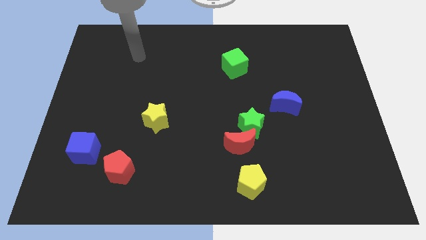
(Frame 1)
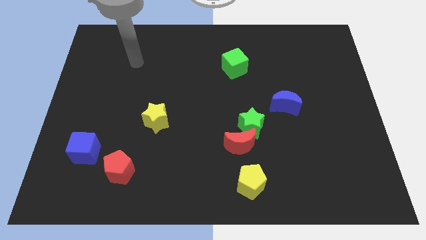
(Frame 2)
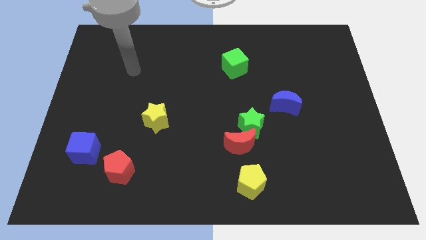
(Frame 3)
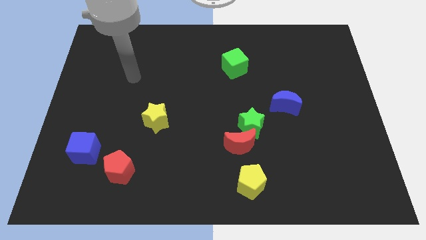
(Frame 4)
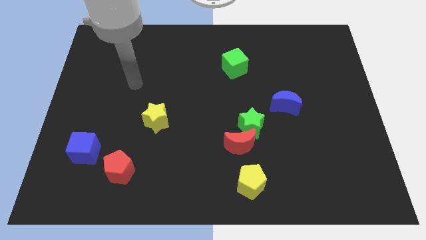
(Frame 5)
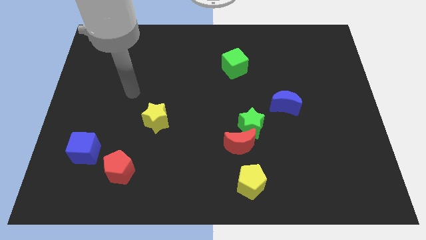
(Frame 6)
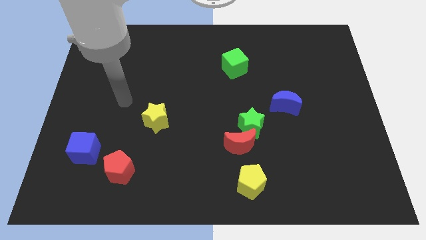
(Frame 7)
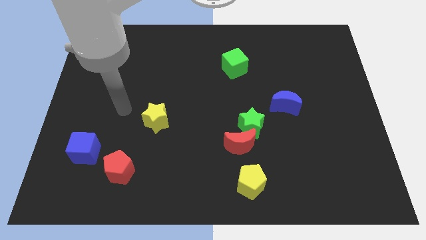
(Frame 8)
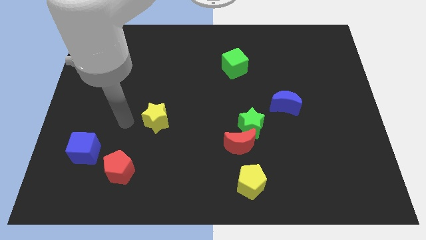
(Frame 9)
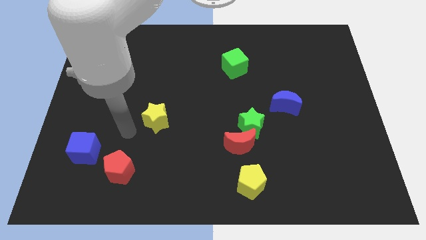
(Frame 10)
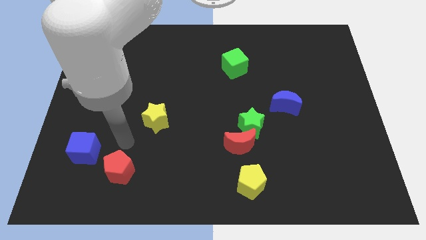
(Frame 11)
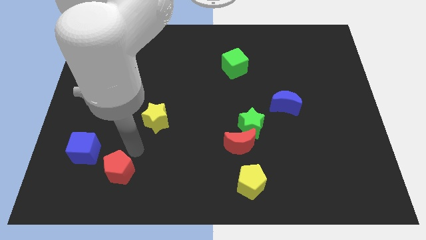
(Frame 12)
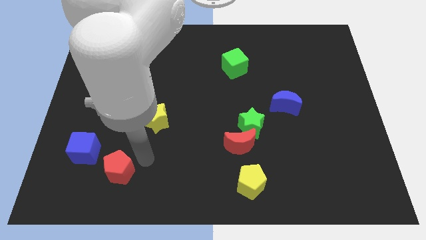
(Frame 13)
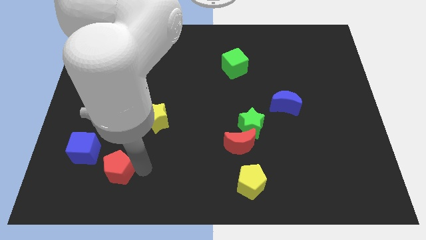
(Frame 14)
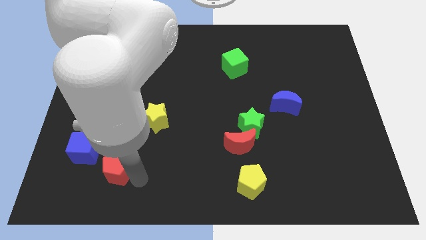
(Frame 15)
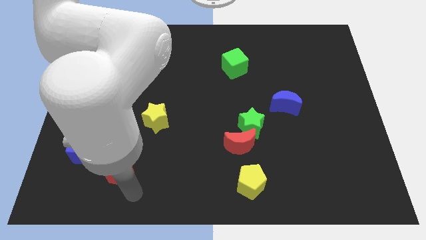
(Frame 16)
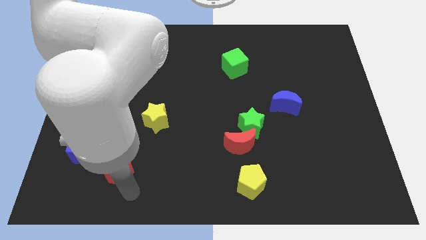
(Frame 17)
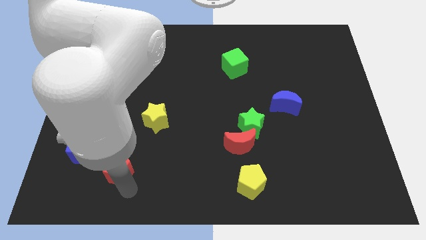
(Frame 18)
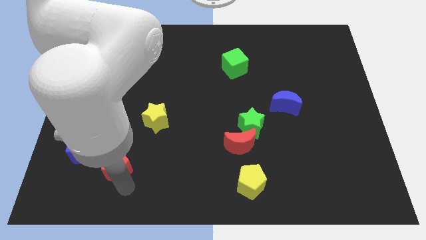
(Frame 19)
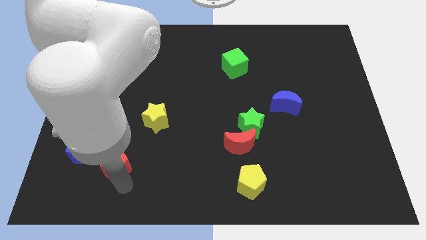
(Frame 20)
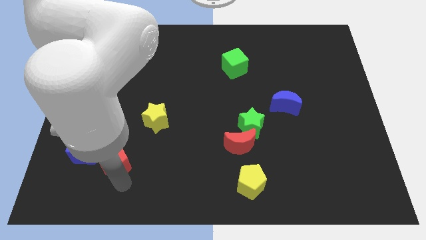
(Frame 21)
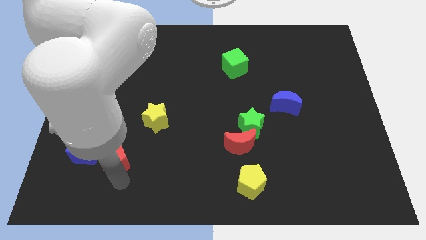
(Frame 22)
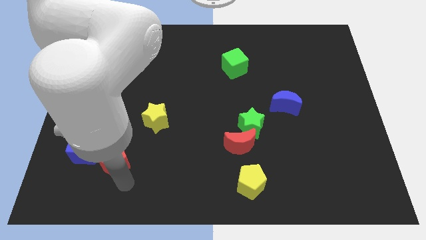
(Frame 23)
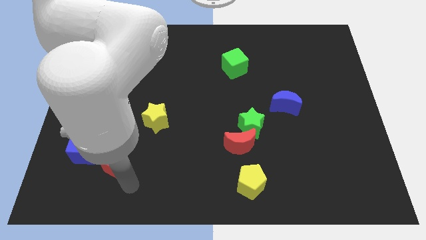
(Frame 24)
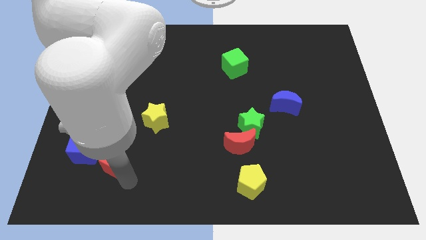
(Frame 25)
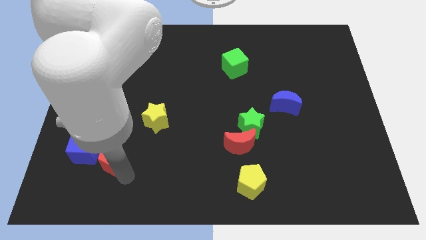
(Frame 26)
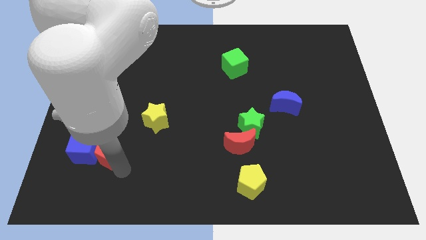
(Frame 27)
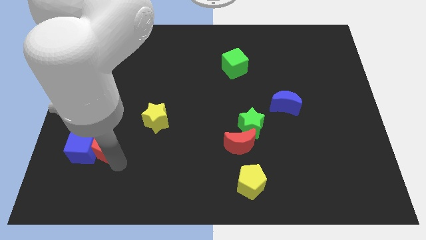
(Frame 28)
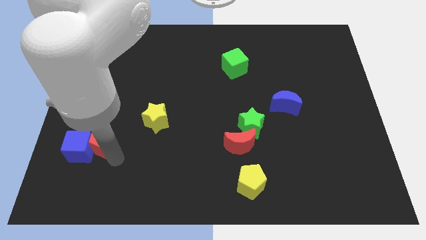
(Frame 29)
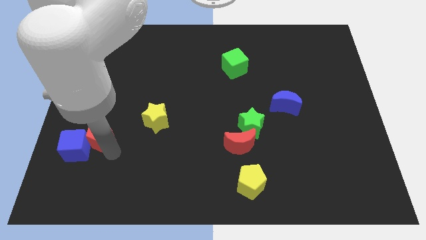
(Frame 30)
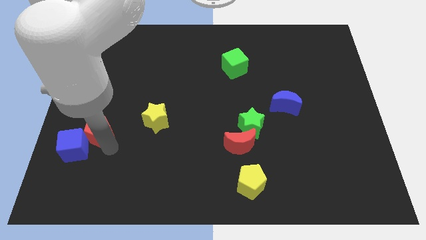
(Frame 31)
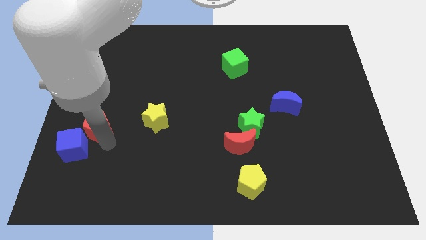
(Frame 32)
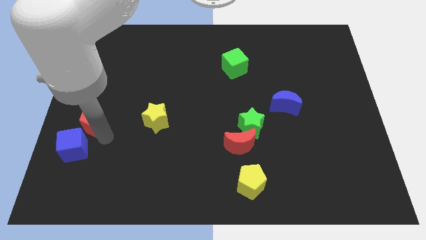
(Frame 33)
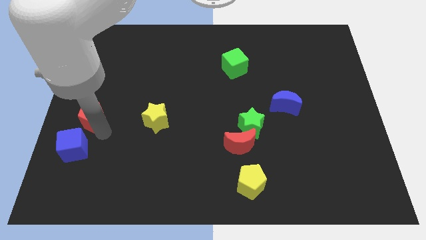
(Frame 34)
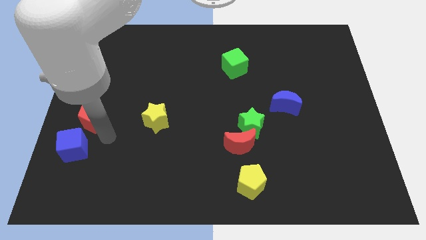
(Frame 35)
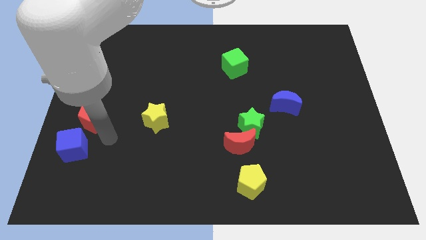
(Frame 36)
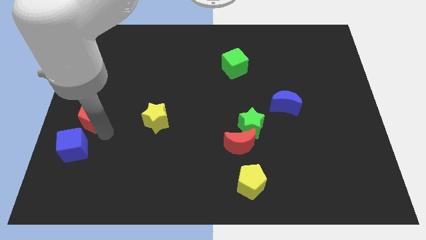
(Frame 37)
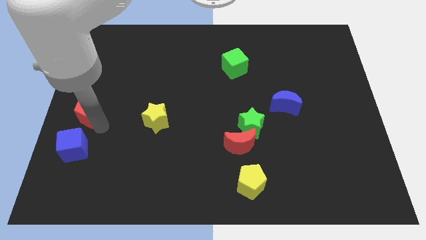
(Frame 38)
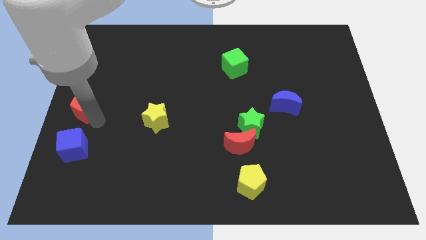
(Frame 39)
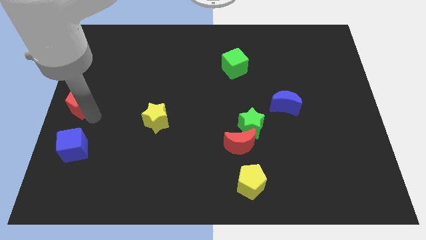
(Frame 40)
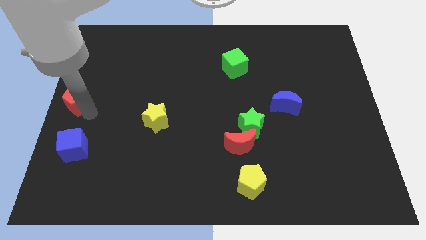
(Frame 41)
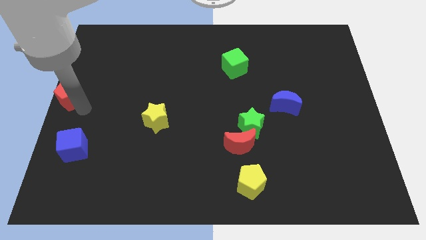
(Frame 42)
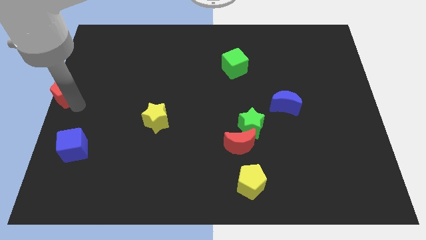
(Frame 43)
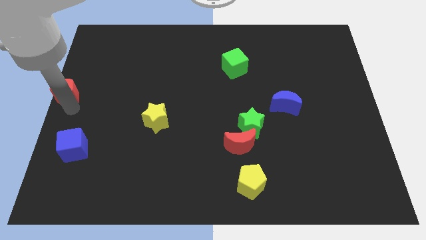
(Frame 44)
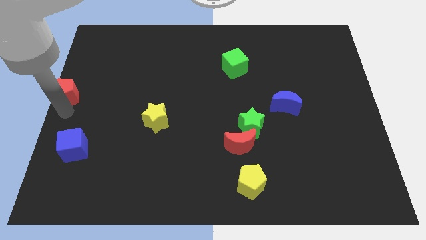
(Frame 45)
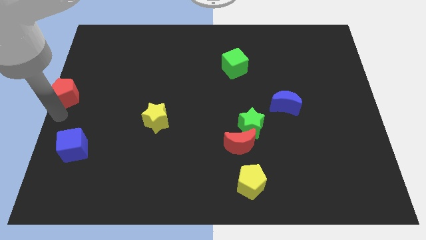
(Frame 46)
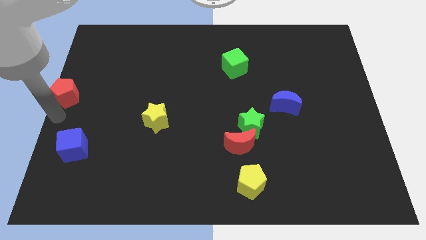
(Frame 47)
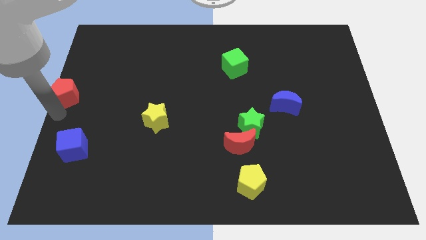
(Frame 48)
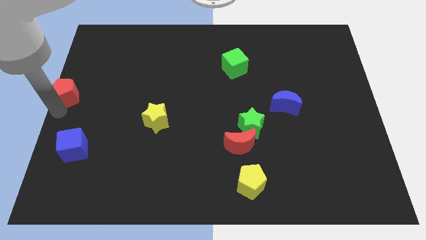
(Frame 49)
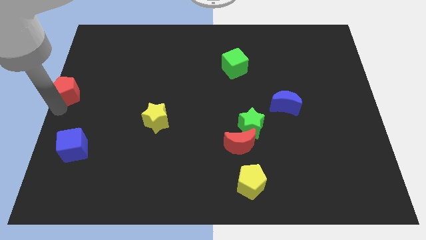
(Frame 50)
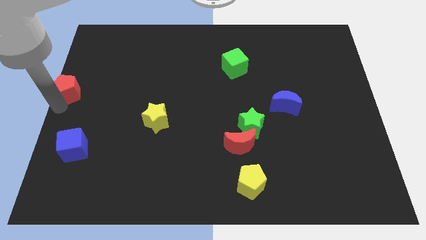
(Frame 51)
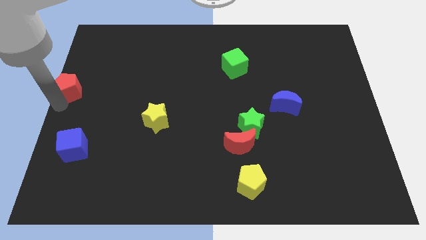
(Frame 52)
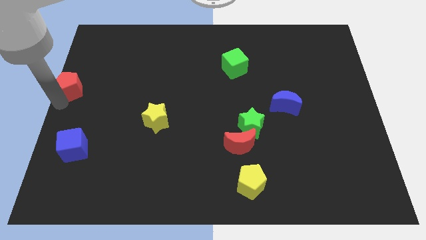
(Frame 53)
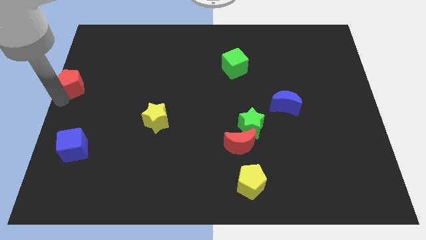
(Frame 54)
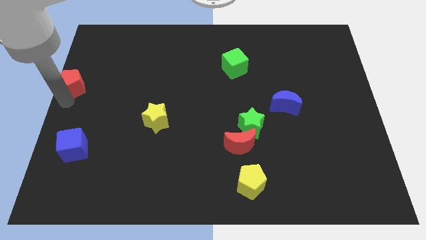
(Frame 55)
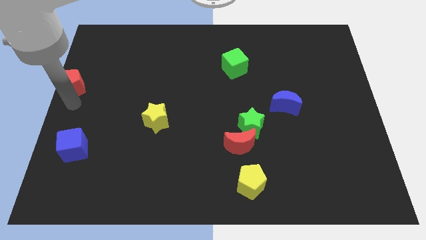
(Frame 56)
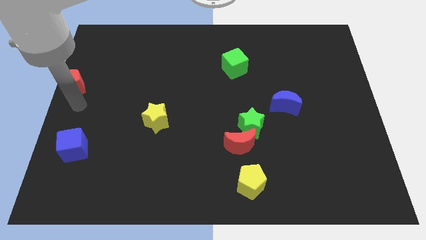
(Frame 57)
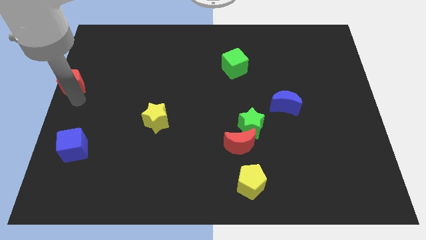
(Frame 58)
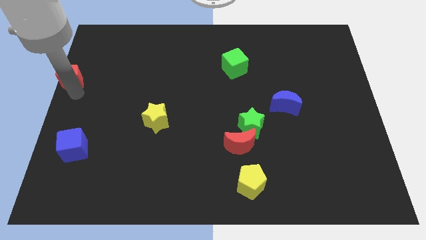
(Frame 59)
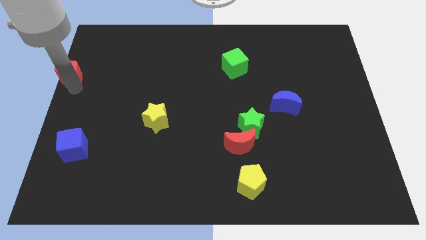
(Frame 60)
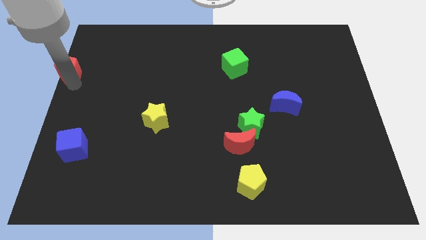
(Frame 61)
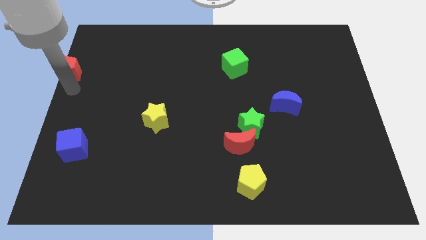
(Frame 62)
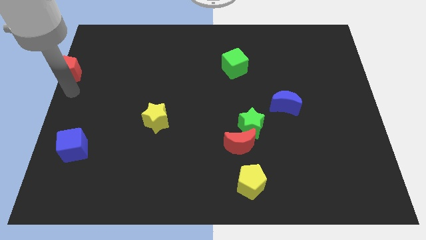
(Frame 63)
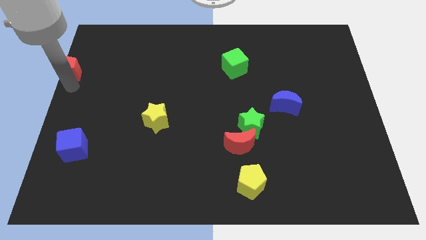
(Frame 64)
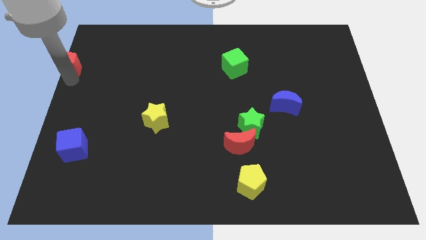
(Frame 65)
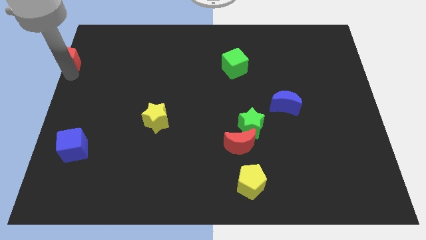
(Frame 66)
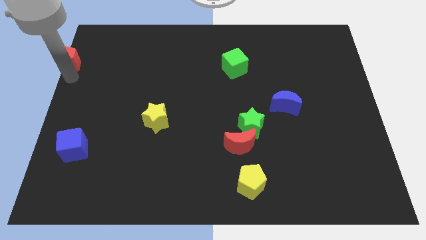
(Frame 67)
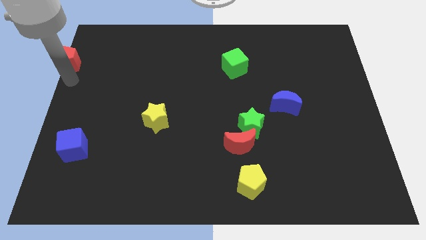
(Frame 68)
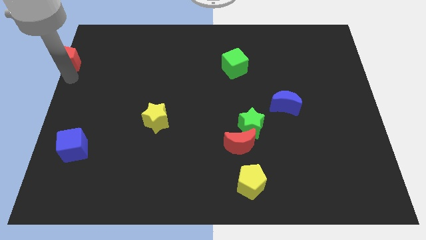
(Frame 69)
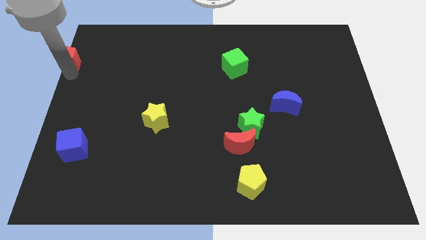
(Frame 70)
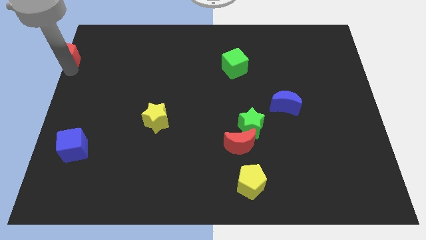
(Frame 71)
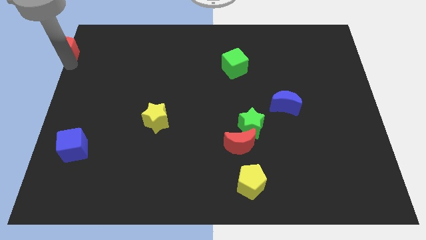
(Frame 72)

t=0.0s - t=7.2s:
slide the red pentagon to the upper left corner

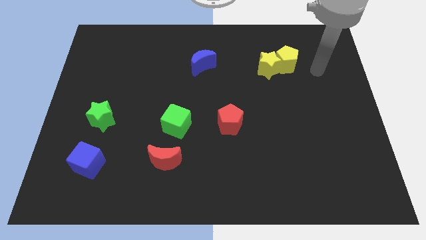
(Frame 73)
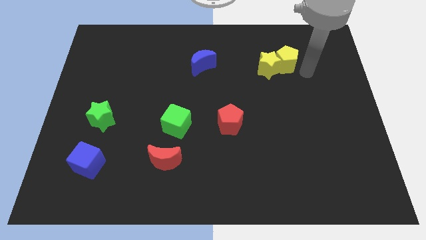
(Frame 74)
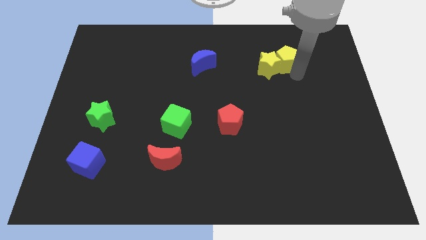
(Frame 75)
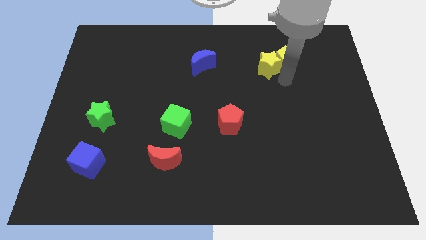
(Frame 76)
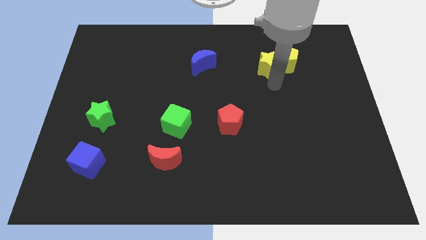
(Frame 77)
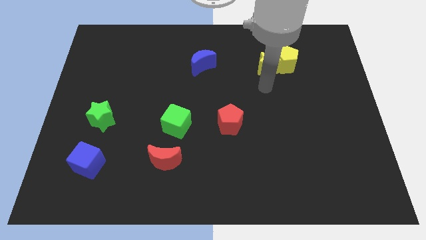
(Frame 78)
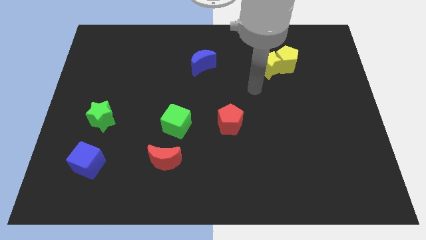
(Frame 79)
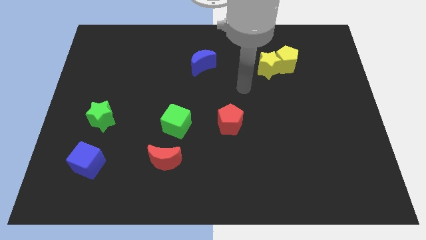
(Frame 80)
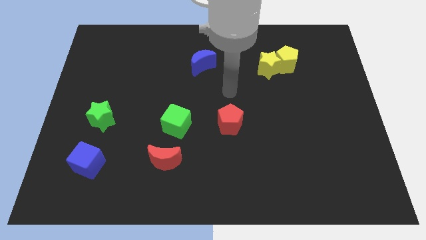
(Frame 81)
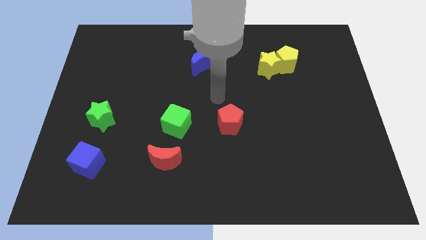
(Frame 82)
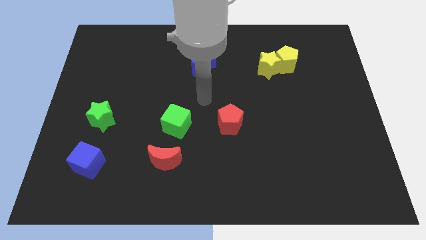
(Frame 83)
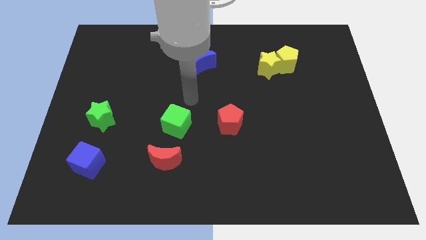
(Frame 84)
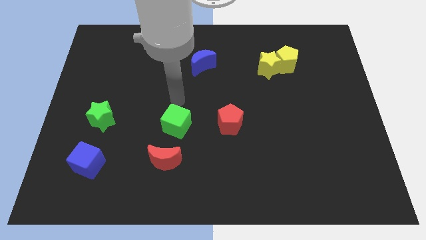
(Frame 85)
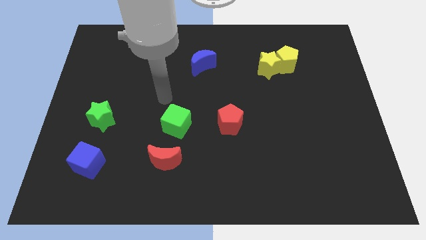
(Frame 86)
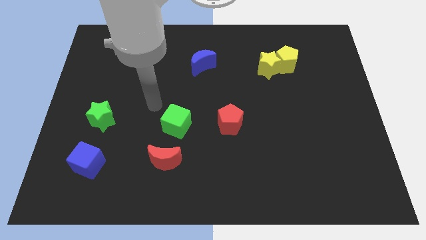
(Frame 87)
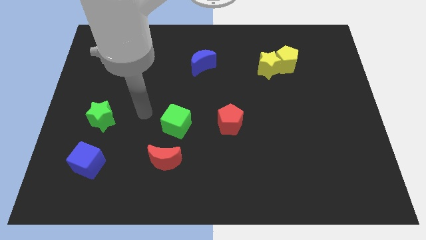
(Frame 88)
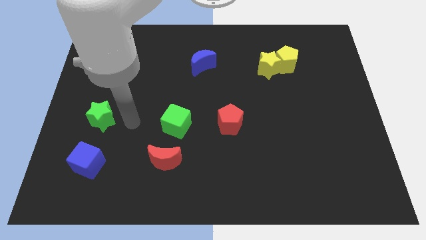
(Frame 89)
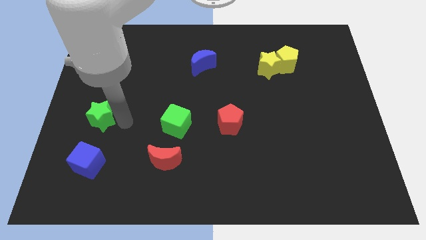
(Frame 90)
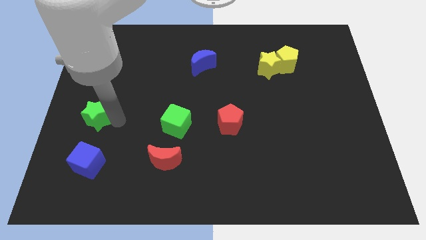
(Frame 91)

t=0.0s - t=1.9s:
move the green star to the left side
